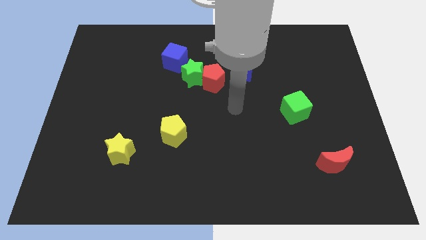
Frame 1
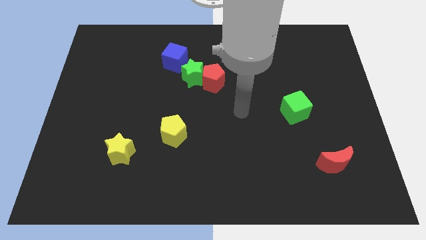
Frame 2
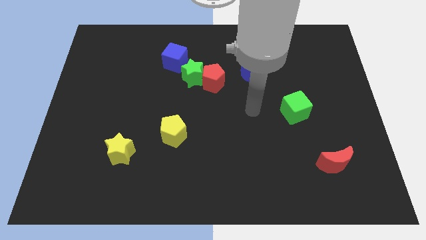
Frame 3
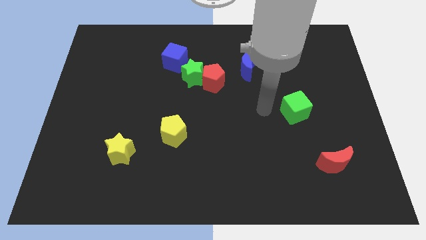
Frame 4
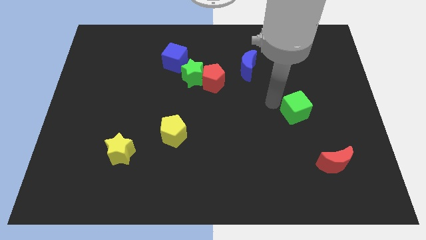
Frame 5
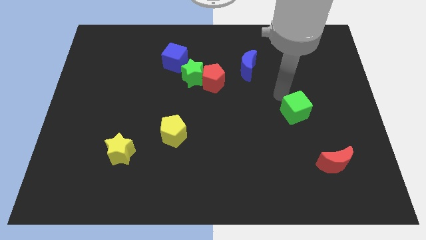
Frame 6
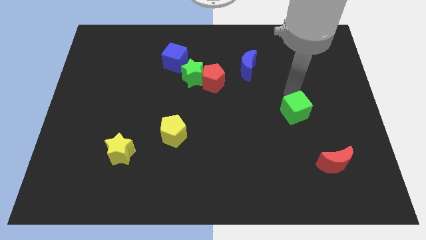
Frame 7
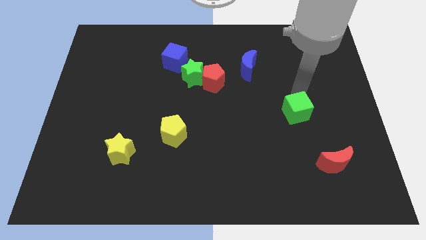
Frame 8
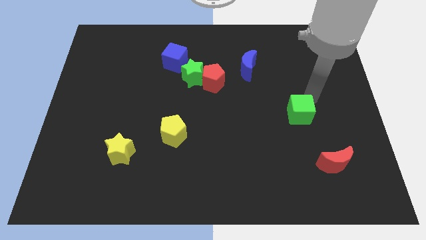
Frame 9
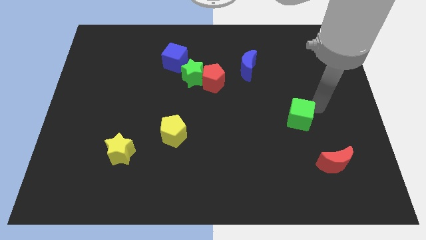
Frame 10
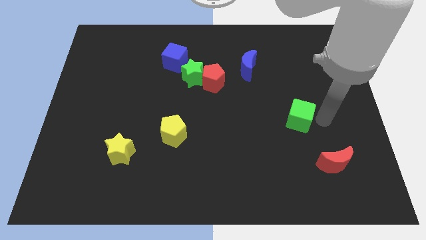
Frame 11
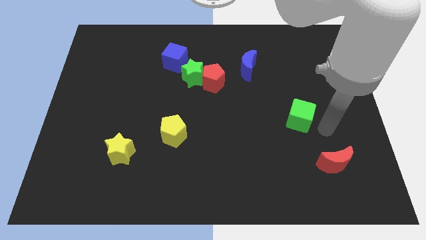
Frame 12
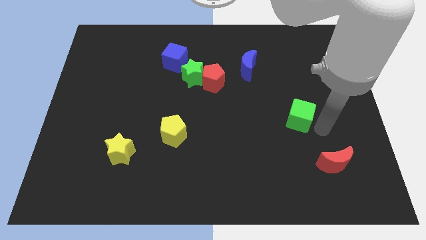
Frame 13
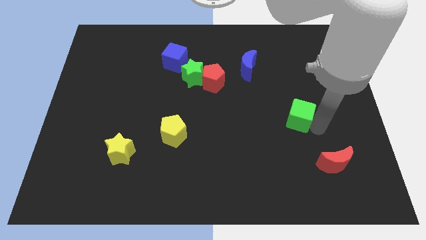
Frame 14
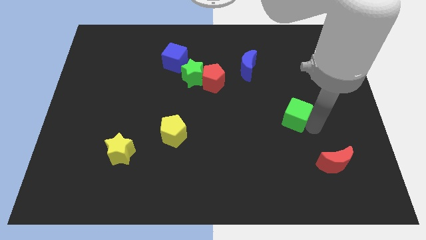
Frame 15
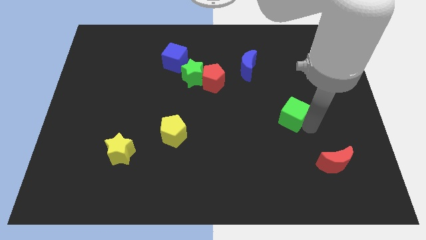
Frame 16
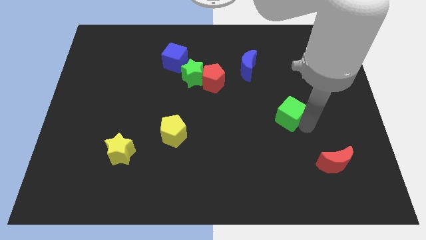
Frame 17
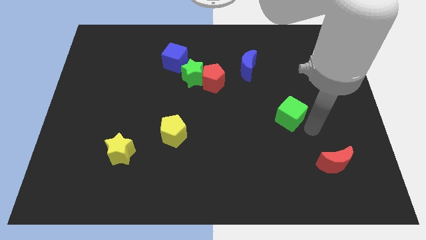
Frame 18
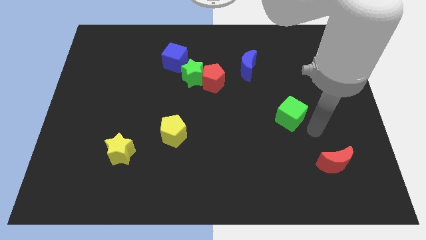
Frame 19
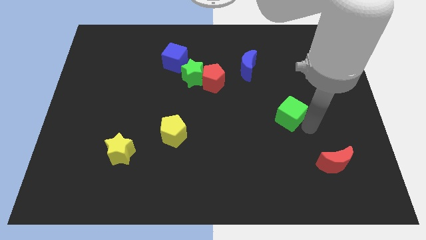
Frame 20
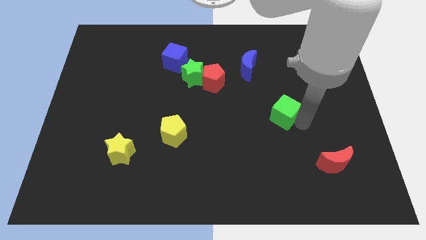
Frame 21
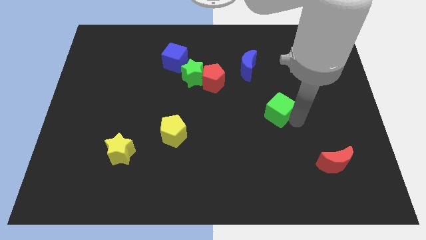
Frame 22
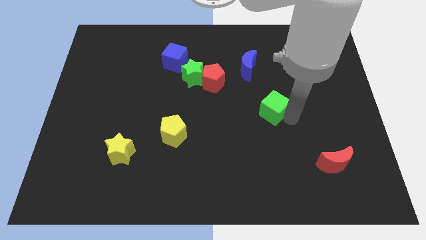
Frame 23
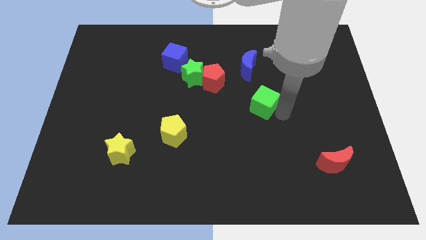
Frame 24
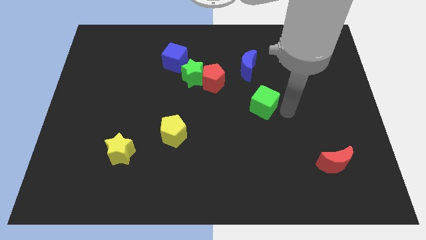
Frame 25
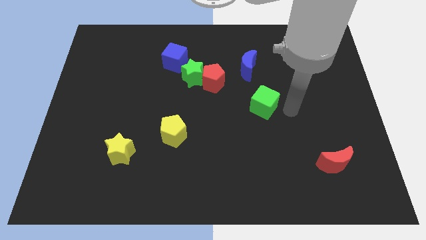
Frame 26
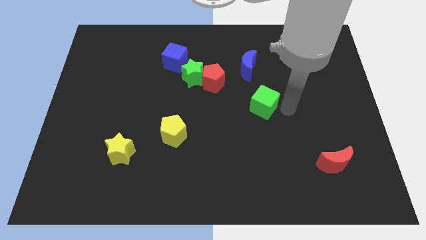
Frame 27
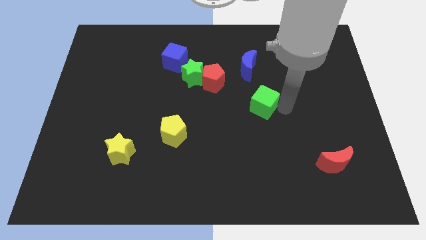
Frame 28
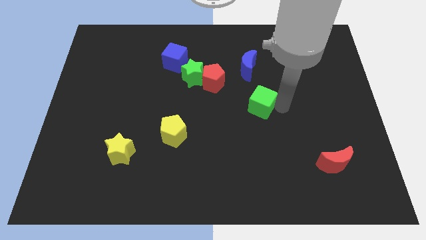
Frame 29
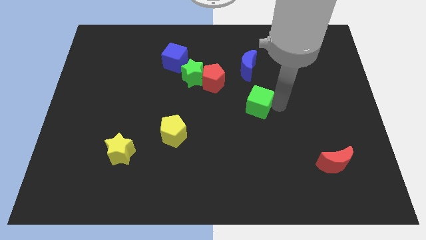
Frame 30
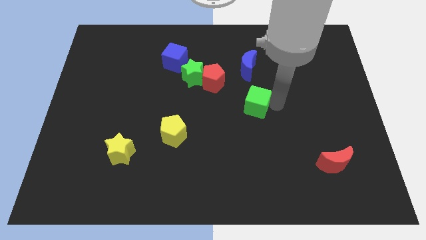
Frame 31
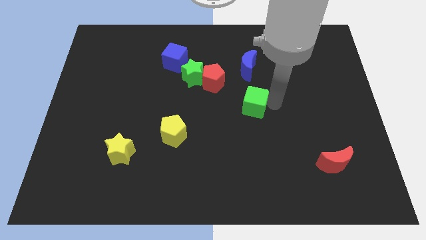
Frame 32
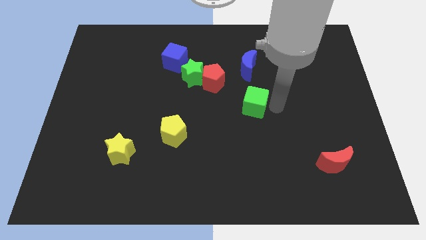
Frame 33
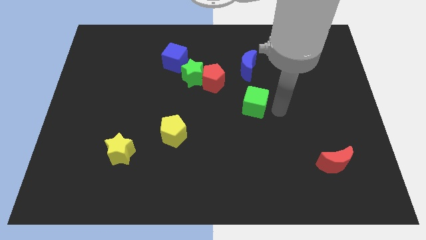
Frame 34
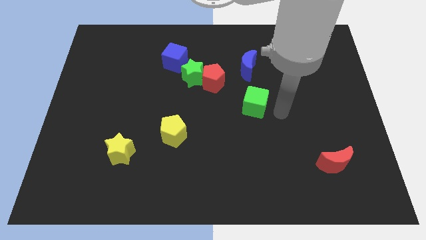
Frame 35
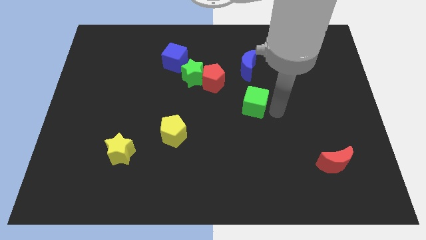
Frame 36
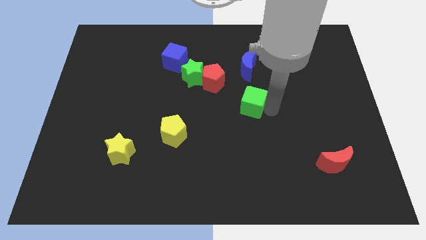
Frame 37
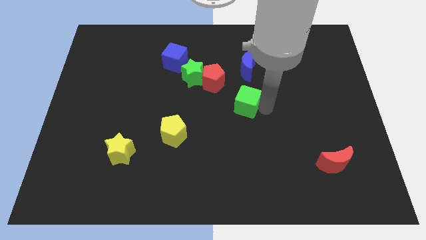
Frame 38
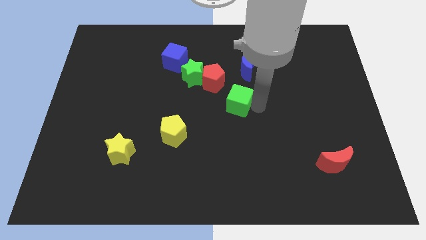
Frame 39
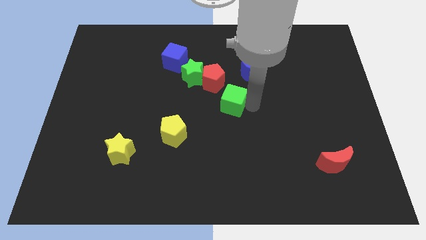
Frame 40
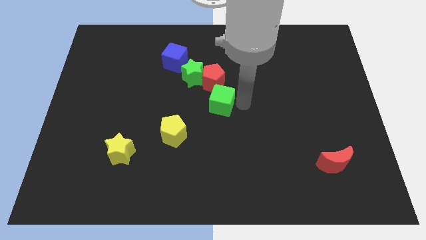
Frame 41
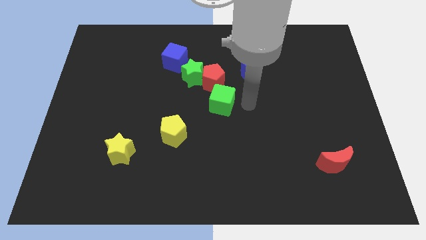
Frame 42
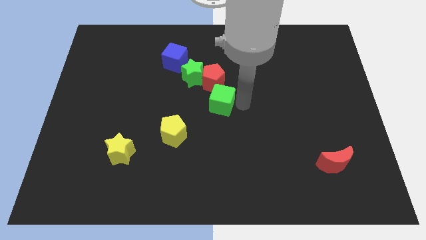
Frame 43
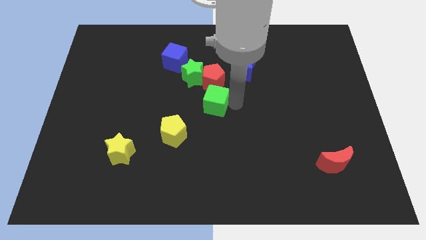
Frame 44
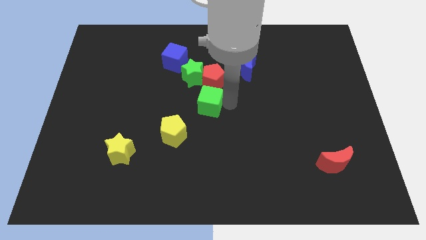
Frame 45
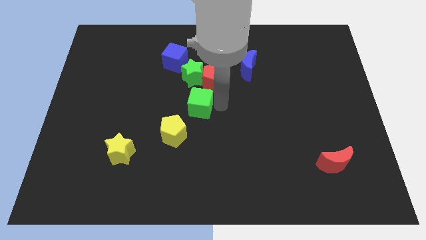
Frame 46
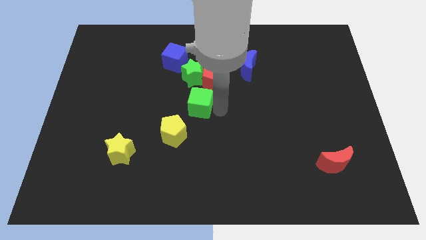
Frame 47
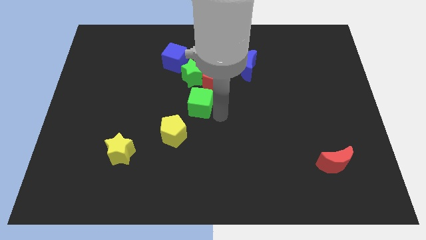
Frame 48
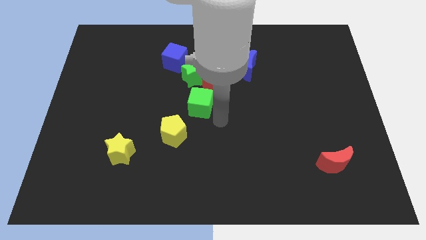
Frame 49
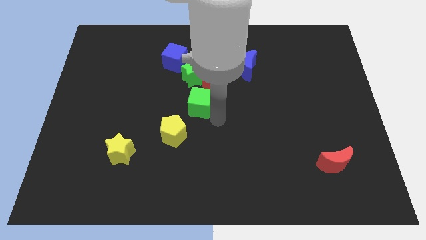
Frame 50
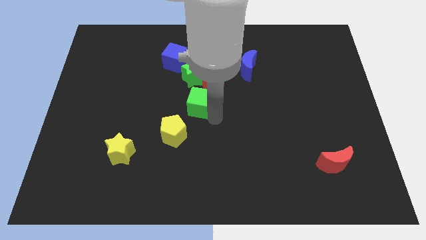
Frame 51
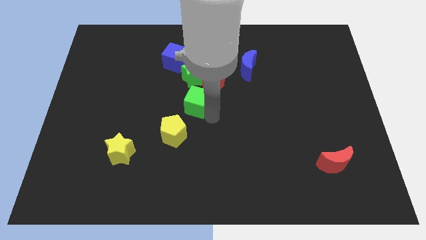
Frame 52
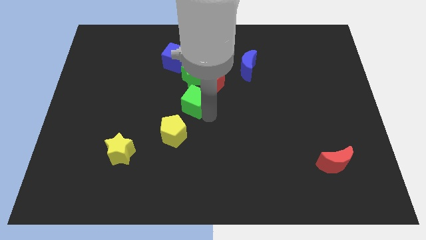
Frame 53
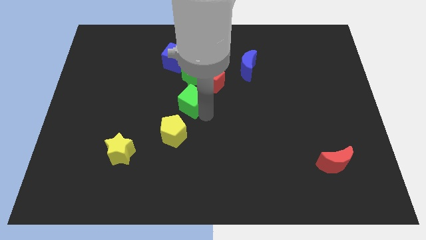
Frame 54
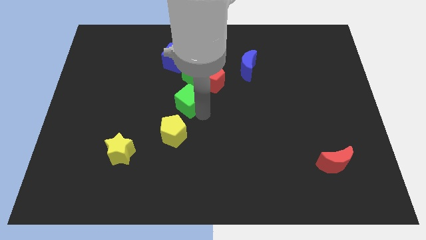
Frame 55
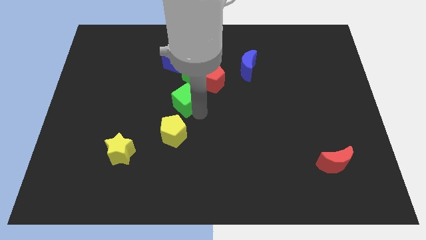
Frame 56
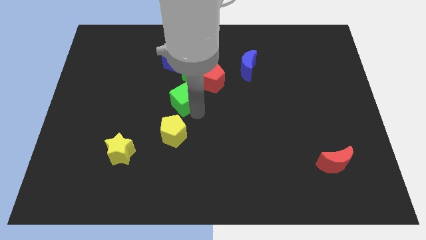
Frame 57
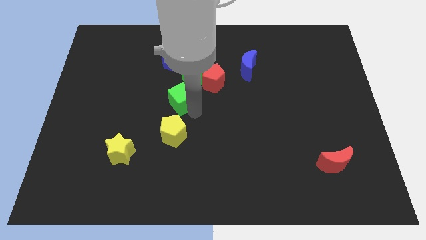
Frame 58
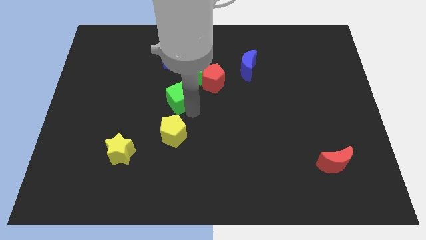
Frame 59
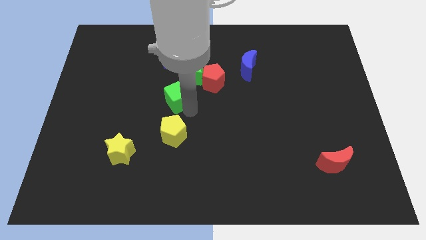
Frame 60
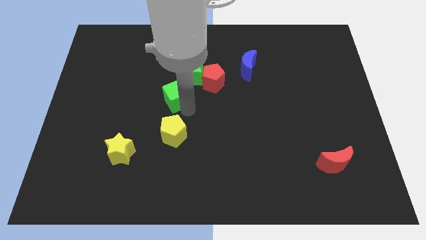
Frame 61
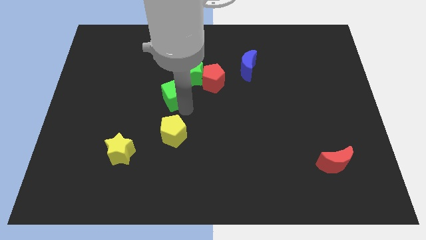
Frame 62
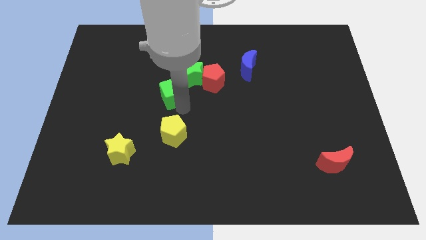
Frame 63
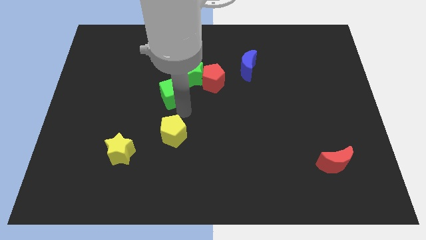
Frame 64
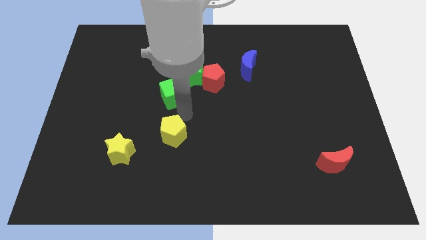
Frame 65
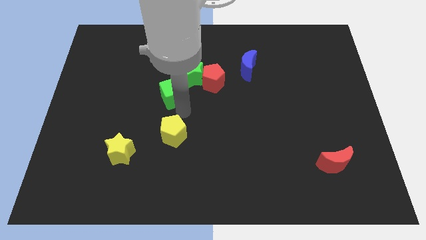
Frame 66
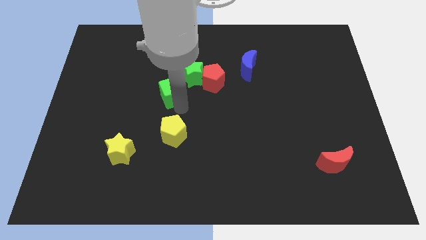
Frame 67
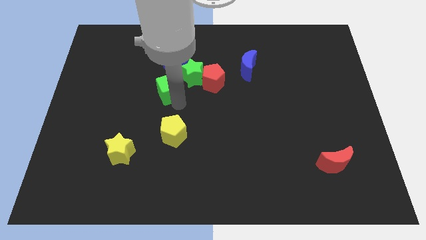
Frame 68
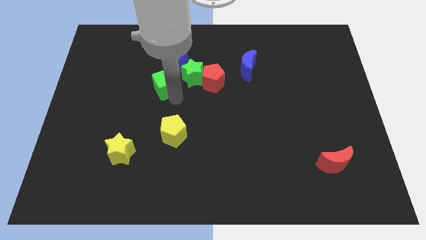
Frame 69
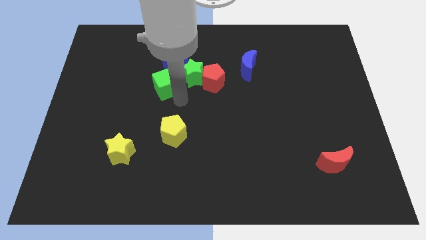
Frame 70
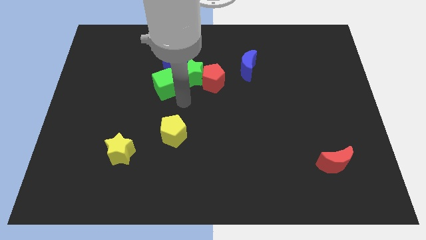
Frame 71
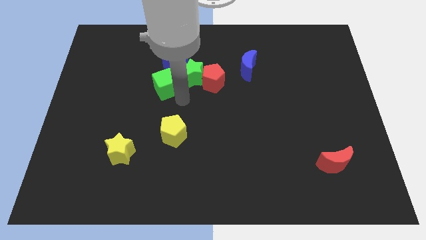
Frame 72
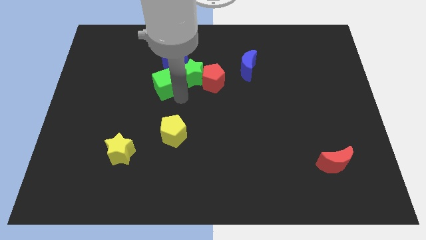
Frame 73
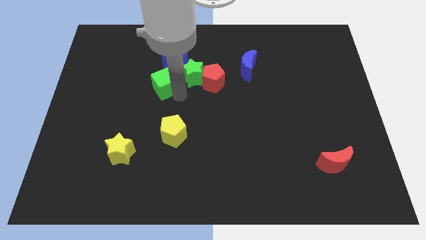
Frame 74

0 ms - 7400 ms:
put the green cube to the bottom left side of the blue cube
